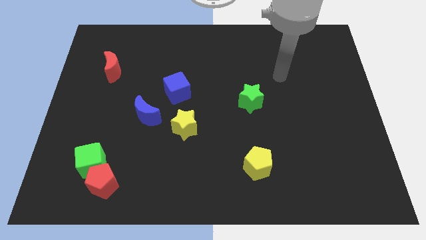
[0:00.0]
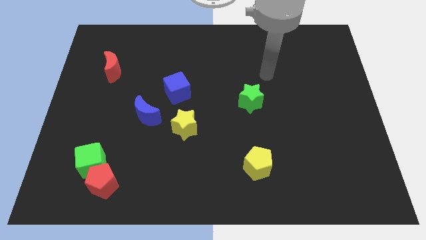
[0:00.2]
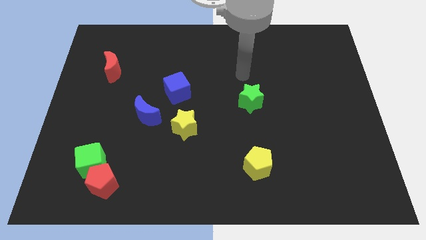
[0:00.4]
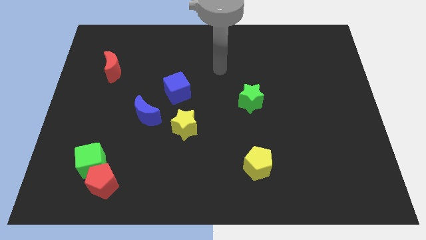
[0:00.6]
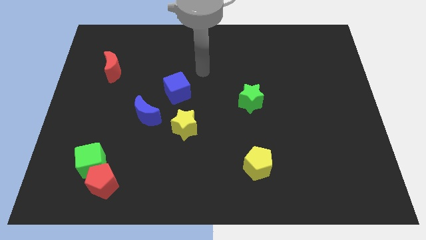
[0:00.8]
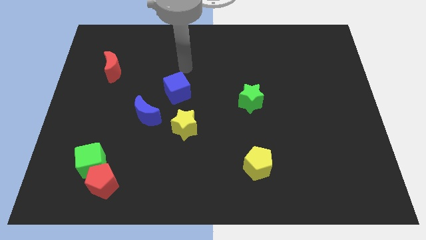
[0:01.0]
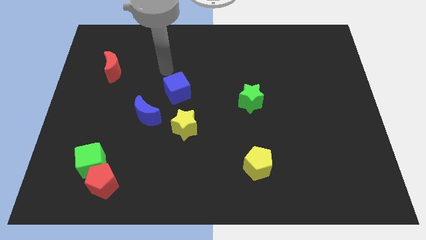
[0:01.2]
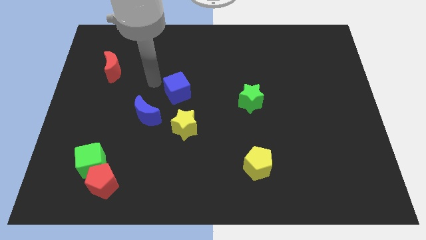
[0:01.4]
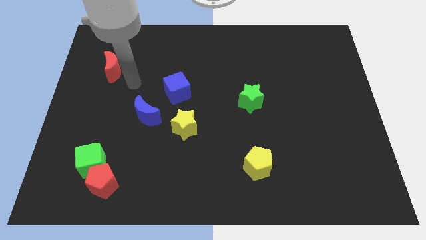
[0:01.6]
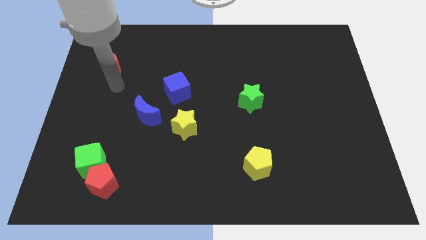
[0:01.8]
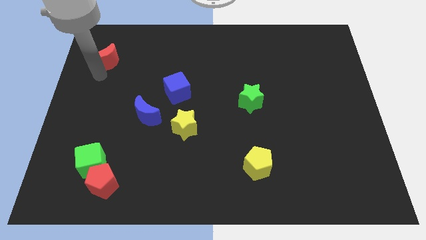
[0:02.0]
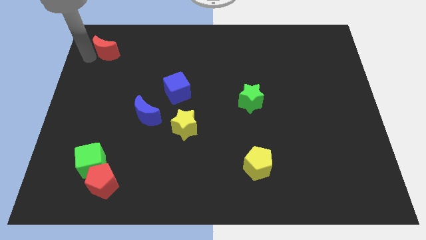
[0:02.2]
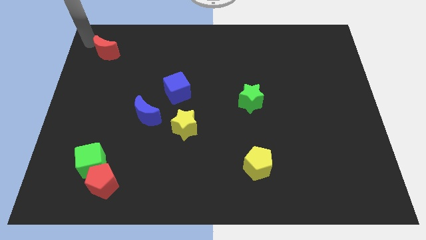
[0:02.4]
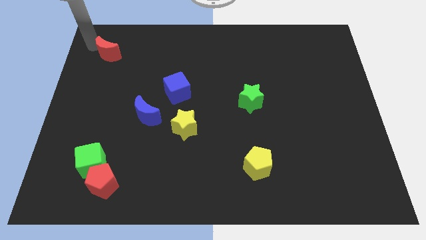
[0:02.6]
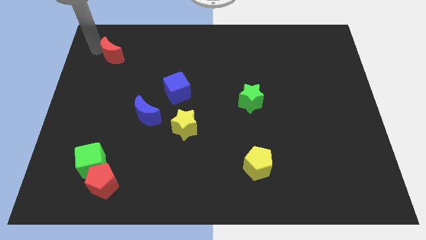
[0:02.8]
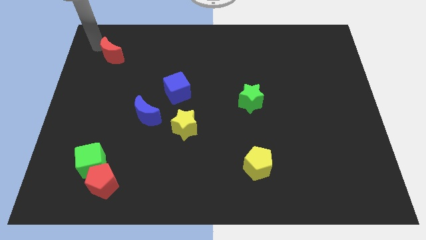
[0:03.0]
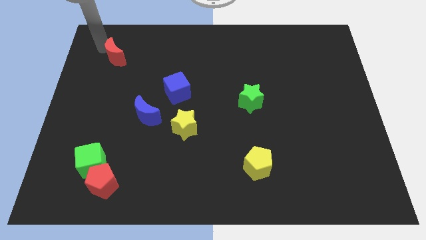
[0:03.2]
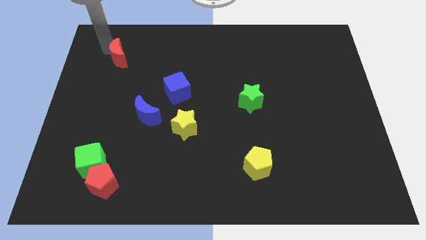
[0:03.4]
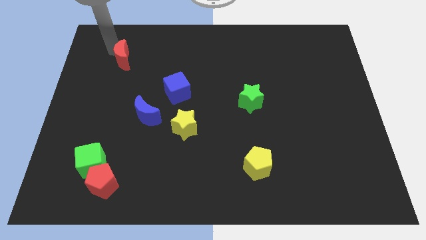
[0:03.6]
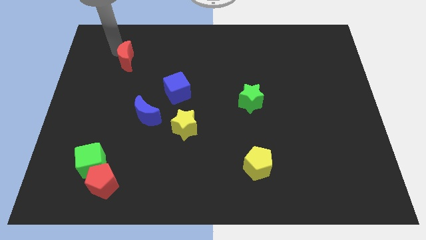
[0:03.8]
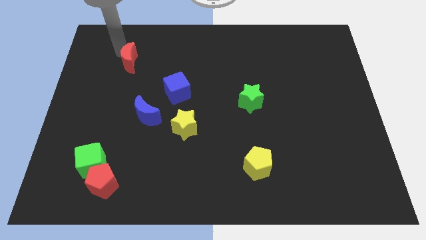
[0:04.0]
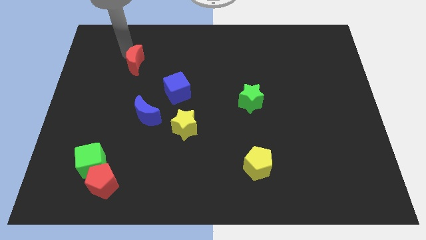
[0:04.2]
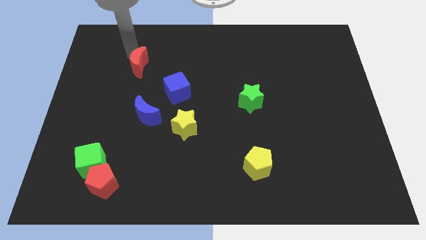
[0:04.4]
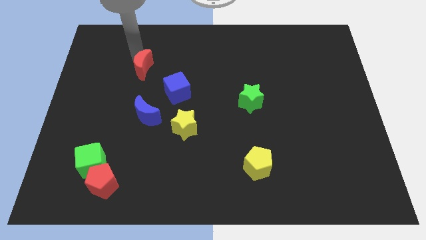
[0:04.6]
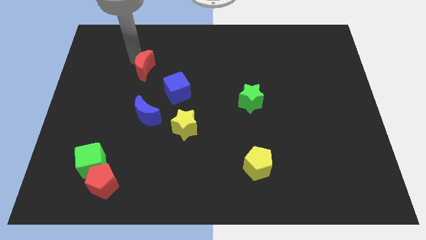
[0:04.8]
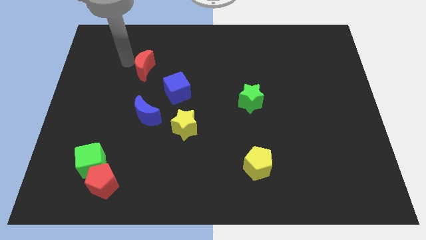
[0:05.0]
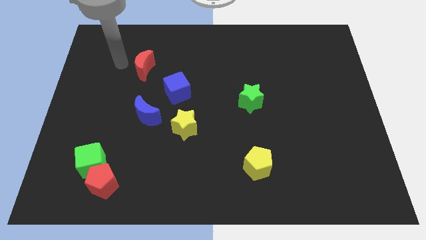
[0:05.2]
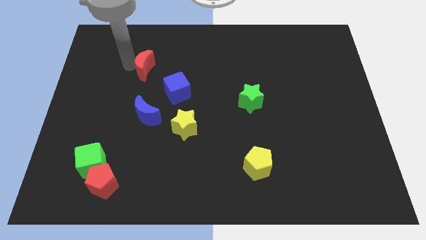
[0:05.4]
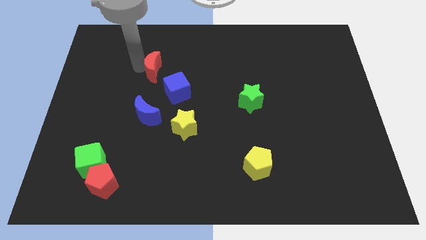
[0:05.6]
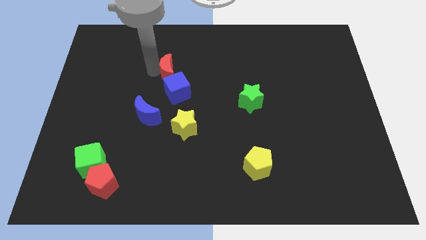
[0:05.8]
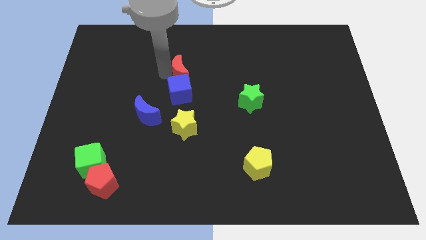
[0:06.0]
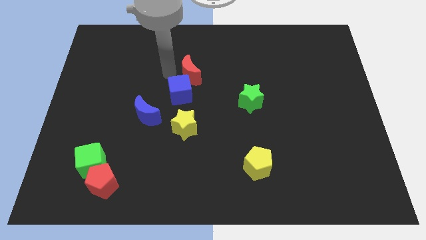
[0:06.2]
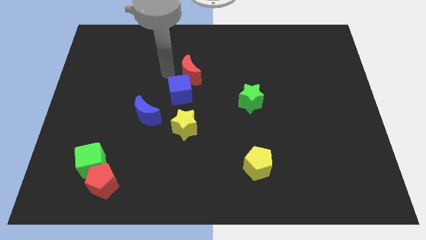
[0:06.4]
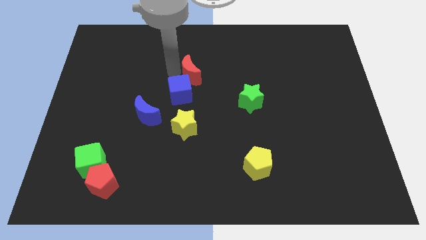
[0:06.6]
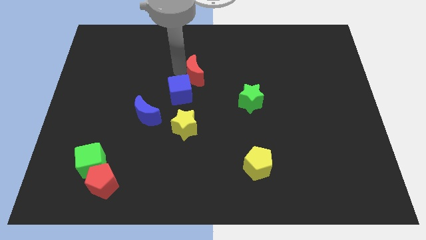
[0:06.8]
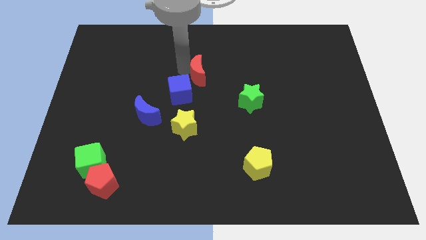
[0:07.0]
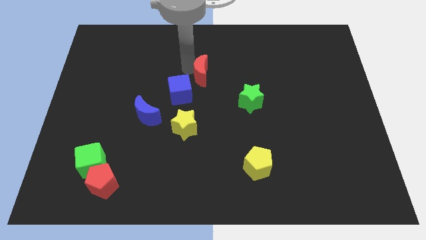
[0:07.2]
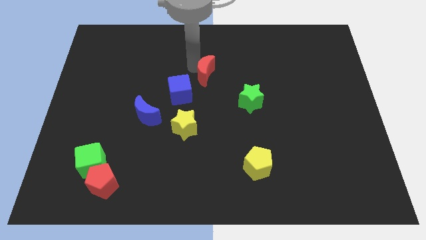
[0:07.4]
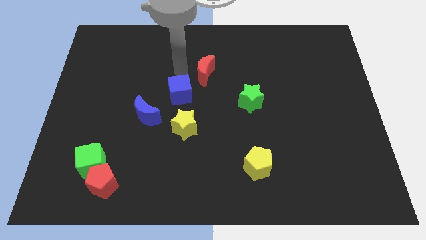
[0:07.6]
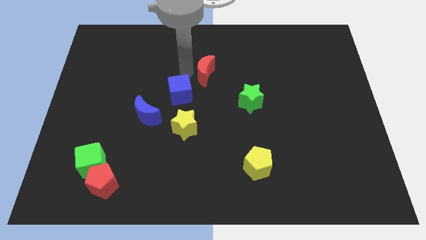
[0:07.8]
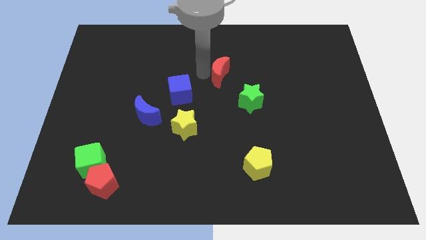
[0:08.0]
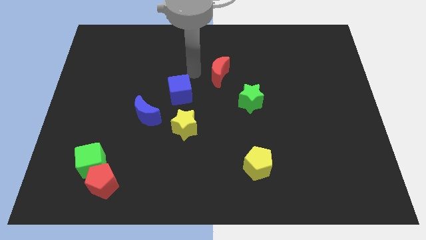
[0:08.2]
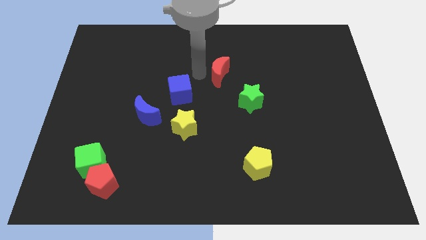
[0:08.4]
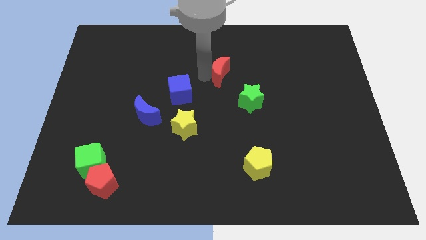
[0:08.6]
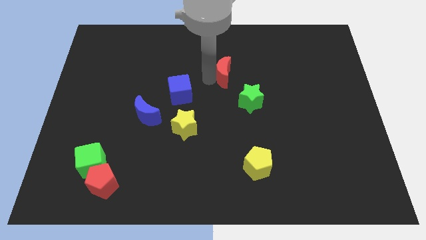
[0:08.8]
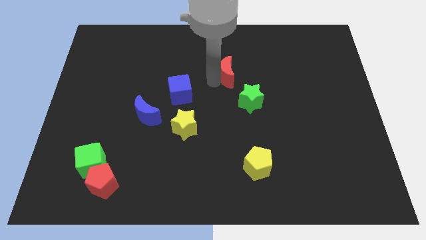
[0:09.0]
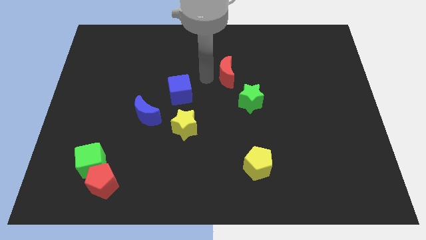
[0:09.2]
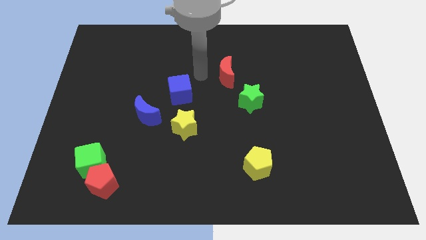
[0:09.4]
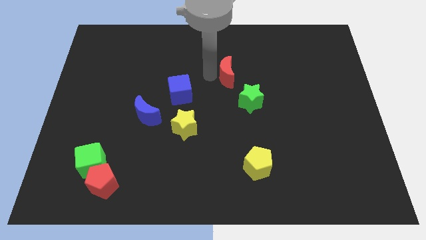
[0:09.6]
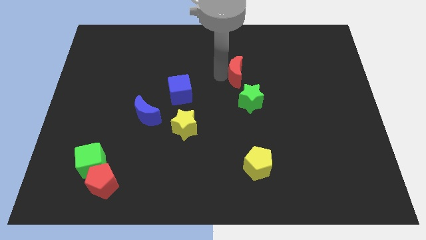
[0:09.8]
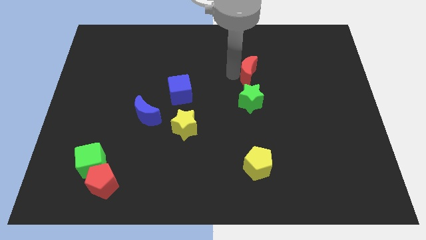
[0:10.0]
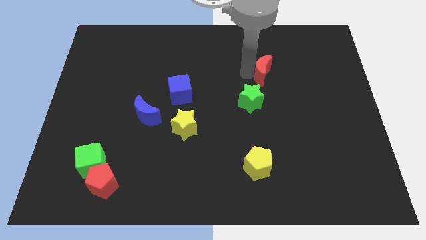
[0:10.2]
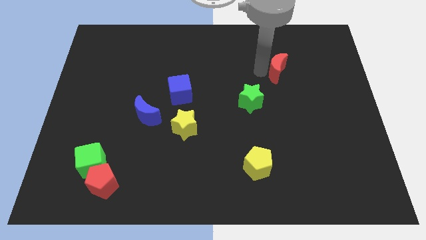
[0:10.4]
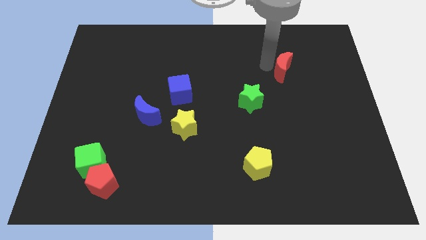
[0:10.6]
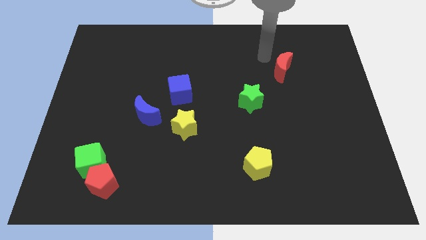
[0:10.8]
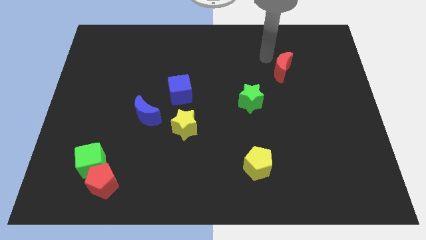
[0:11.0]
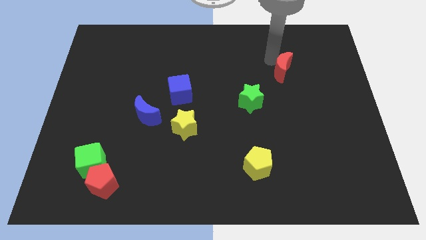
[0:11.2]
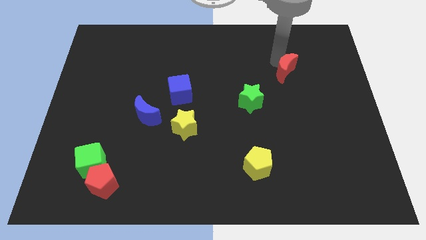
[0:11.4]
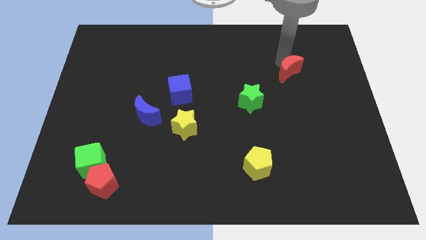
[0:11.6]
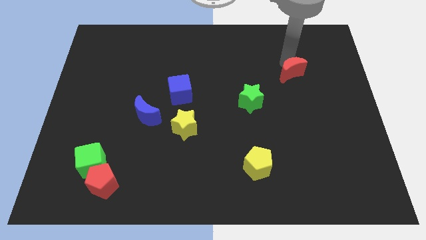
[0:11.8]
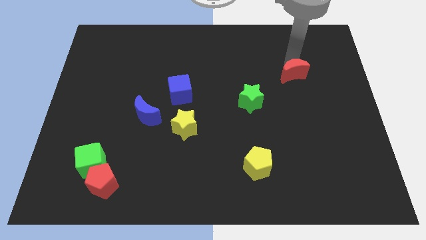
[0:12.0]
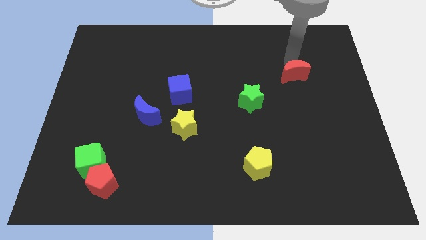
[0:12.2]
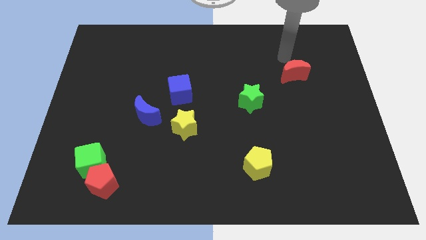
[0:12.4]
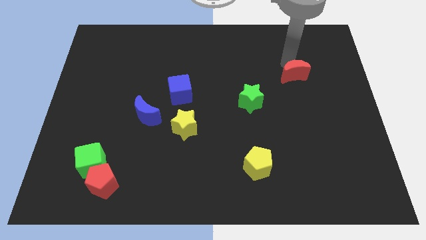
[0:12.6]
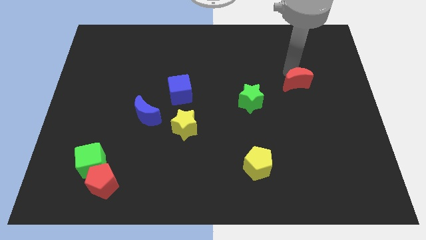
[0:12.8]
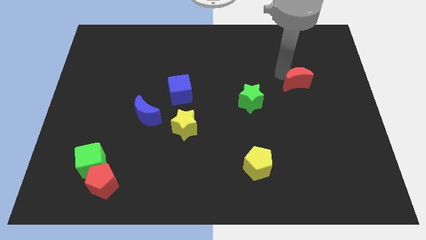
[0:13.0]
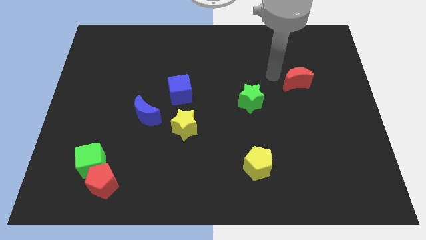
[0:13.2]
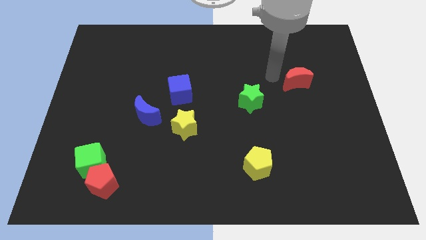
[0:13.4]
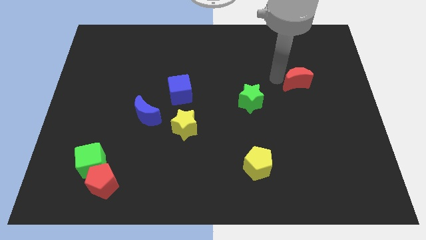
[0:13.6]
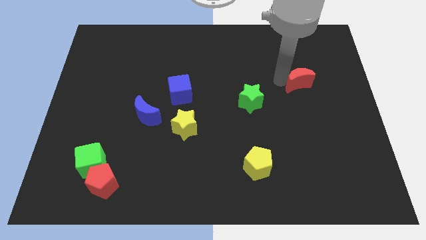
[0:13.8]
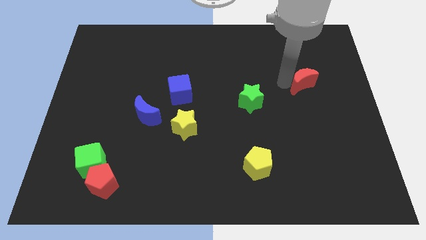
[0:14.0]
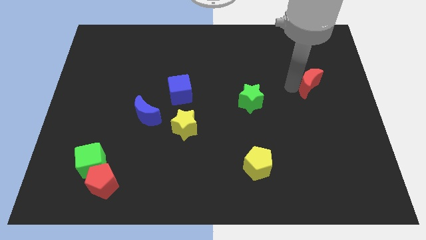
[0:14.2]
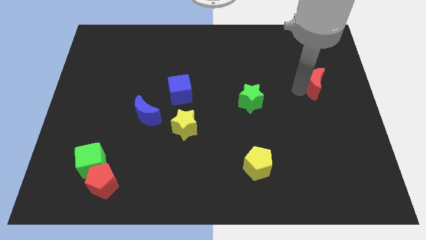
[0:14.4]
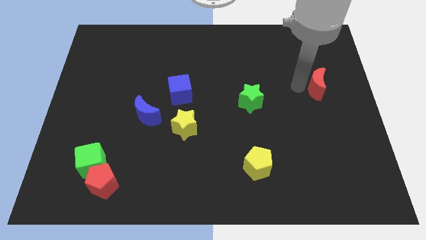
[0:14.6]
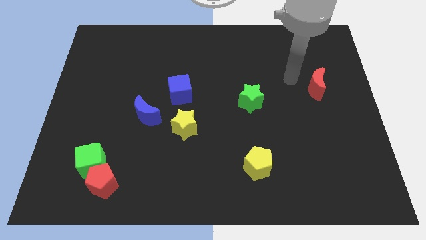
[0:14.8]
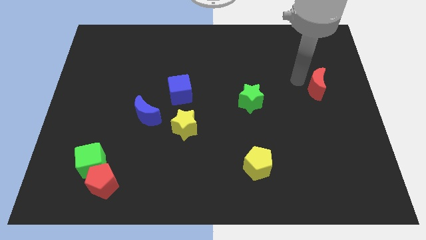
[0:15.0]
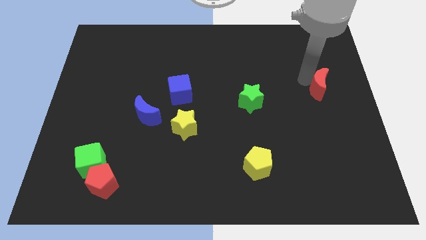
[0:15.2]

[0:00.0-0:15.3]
put the red moon to the right side
